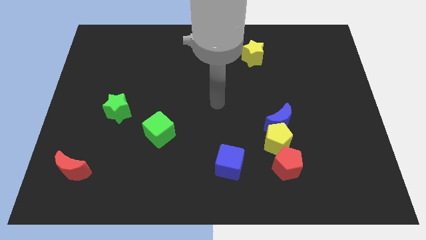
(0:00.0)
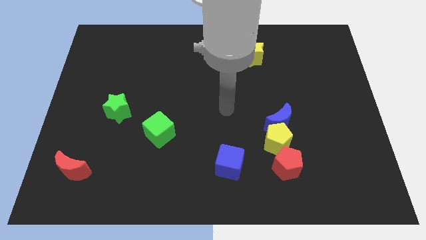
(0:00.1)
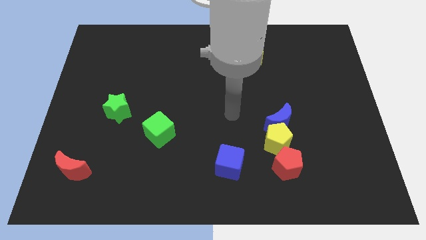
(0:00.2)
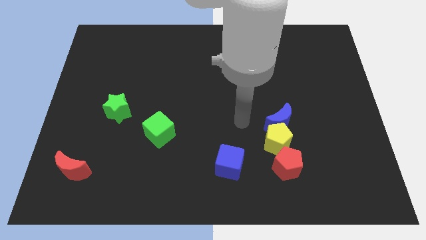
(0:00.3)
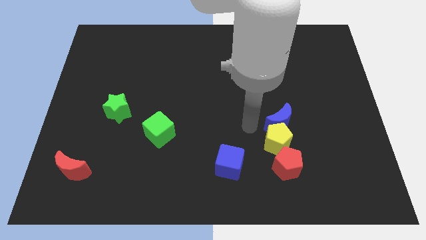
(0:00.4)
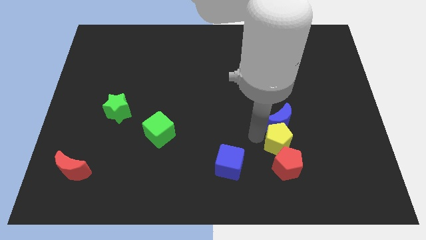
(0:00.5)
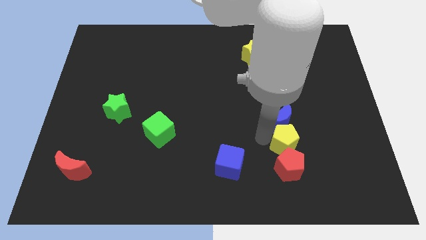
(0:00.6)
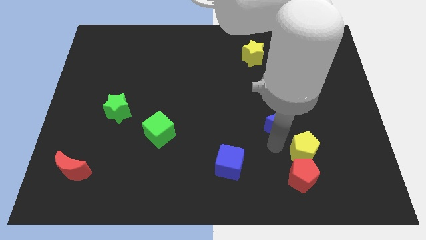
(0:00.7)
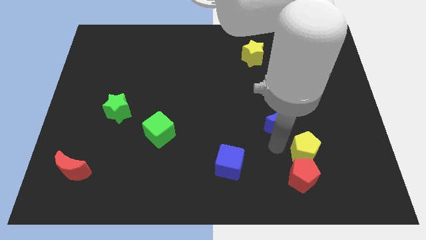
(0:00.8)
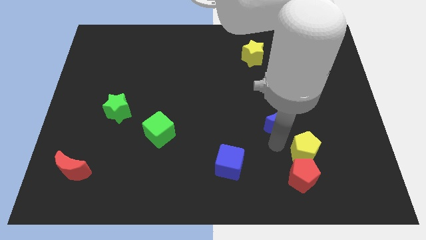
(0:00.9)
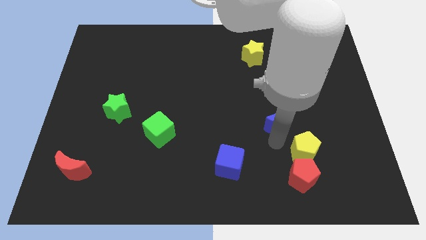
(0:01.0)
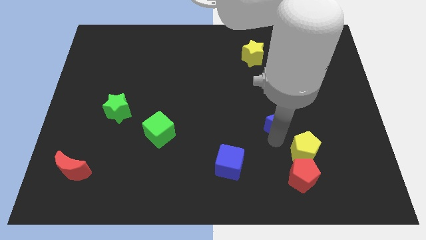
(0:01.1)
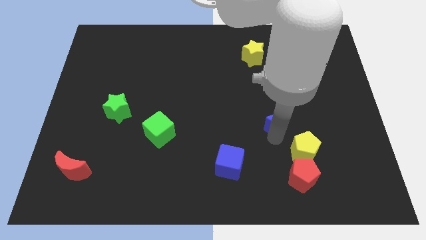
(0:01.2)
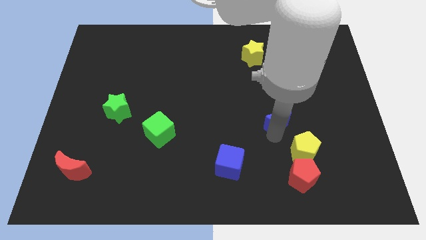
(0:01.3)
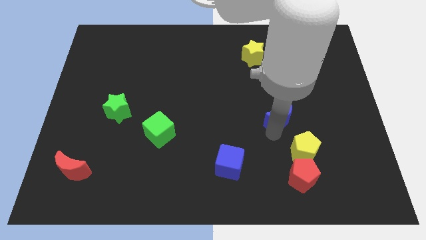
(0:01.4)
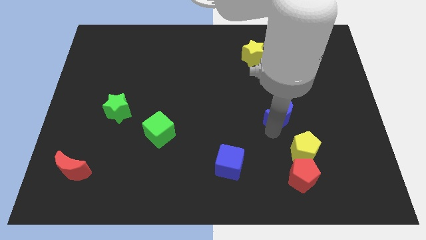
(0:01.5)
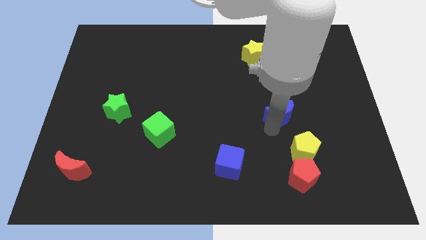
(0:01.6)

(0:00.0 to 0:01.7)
separate the blue moon from the yellow pentagon

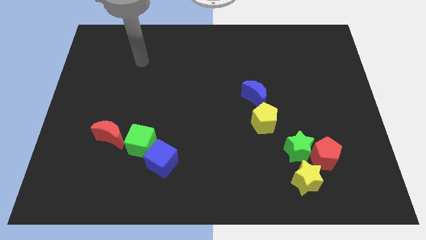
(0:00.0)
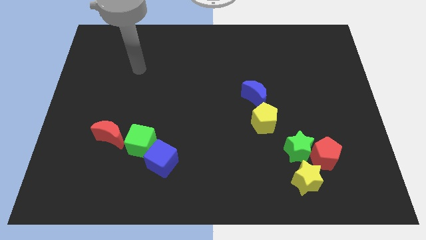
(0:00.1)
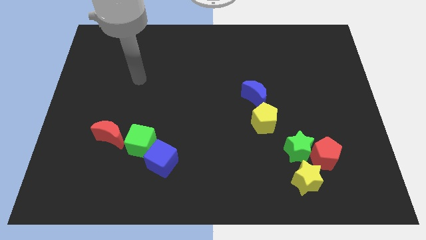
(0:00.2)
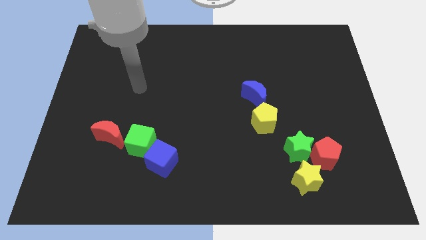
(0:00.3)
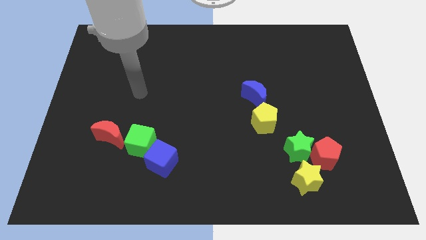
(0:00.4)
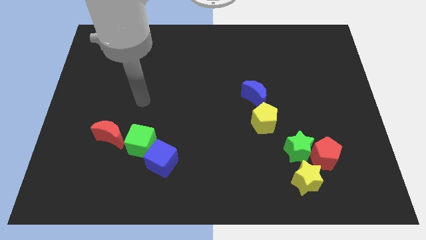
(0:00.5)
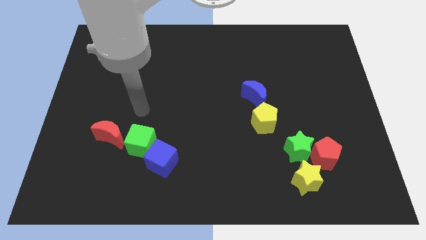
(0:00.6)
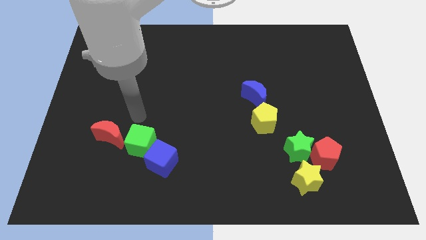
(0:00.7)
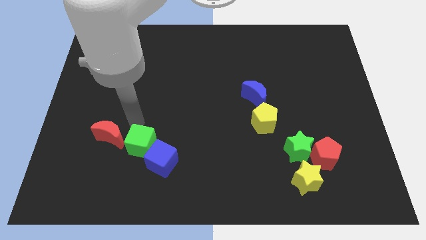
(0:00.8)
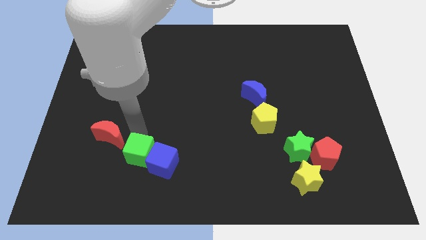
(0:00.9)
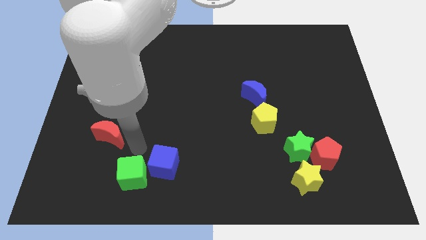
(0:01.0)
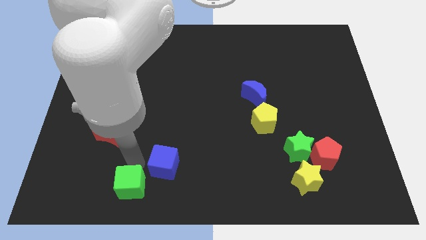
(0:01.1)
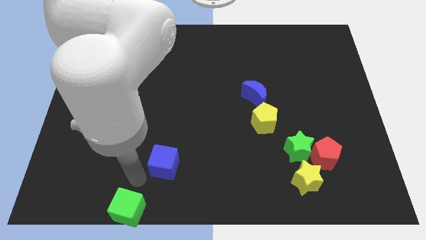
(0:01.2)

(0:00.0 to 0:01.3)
move the blue cube away from the green cube

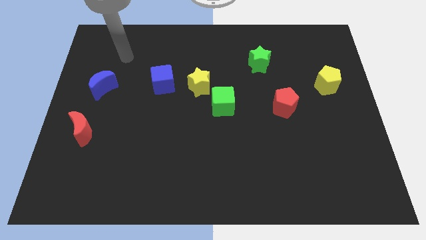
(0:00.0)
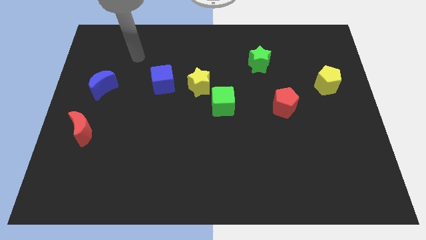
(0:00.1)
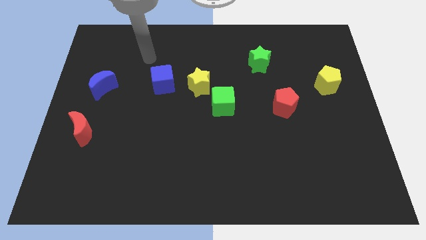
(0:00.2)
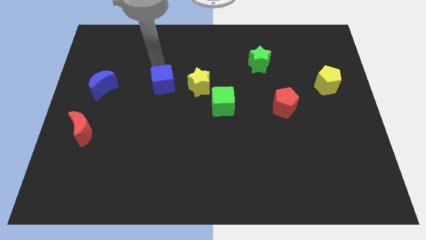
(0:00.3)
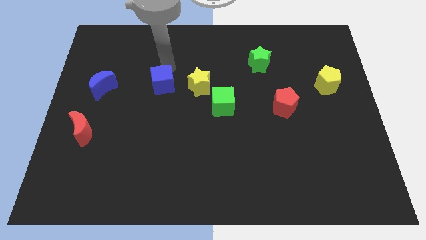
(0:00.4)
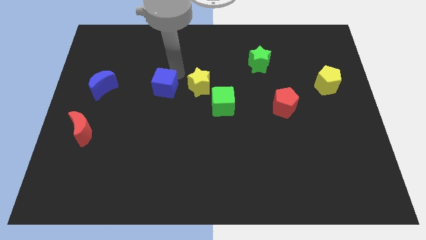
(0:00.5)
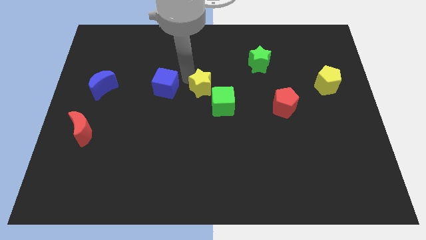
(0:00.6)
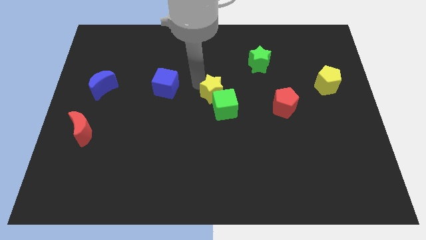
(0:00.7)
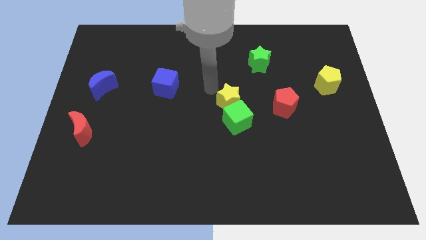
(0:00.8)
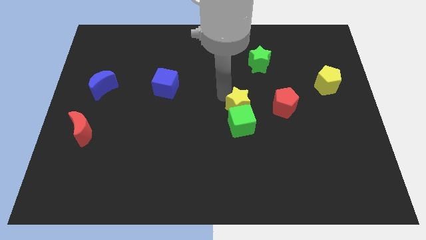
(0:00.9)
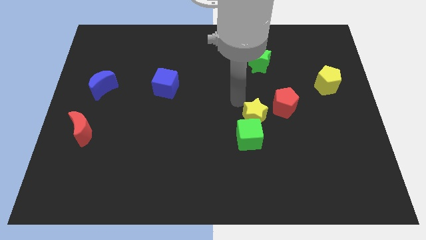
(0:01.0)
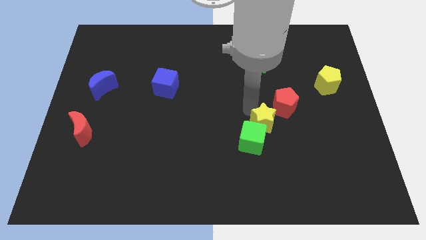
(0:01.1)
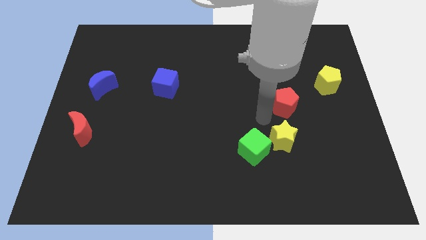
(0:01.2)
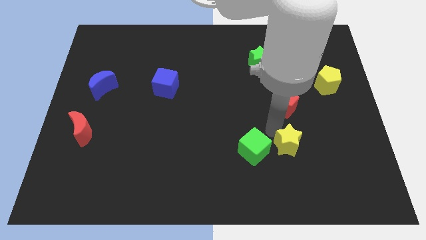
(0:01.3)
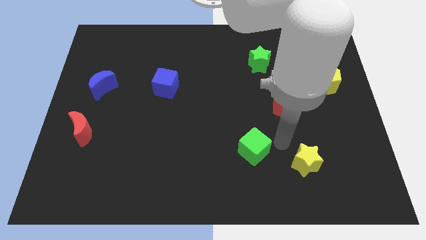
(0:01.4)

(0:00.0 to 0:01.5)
pull the green cube apart from the yellow star

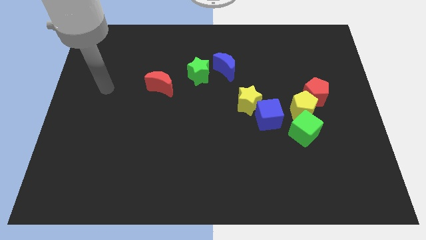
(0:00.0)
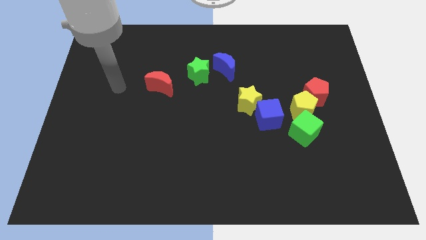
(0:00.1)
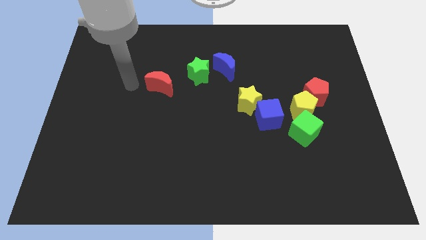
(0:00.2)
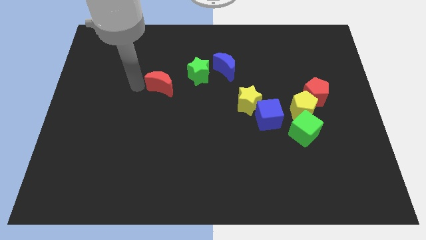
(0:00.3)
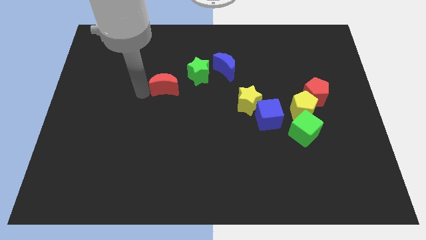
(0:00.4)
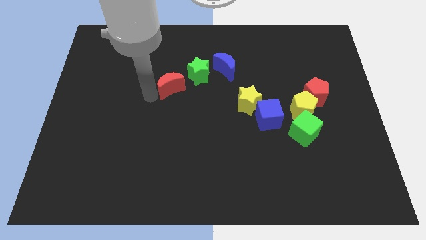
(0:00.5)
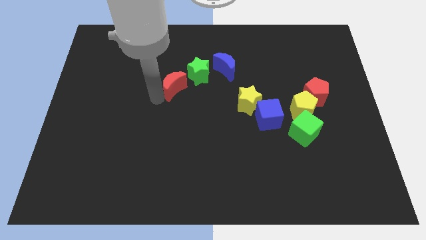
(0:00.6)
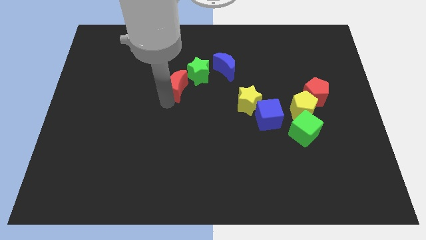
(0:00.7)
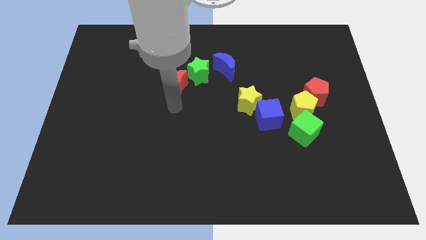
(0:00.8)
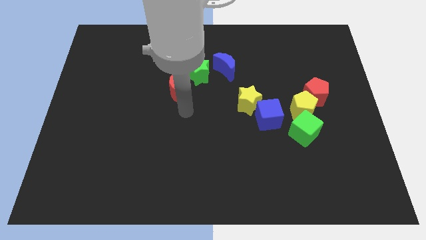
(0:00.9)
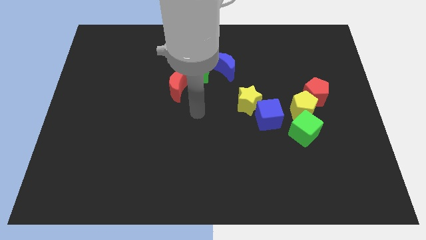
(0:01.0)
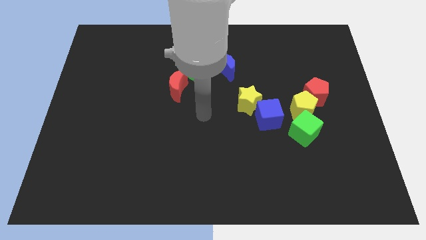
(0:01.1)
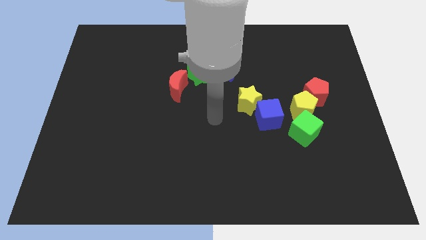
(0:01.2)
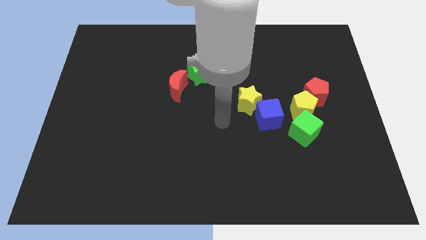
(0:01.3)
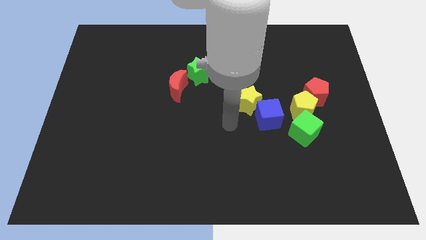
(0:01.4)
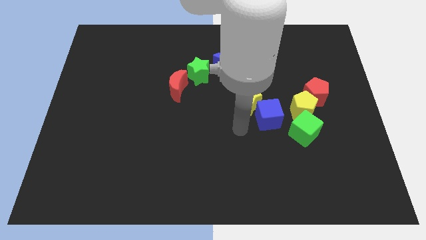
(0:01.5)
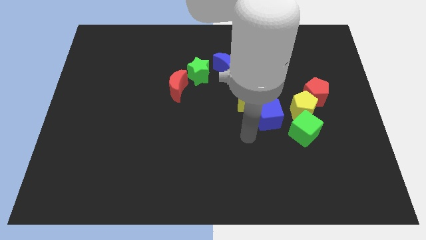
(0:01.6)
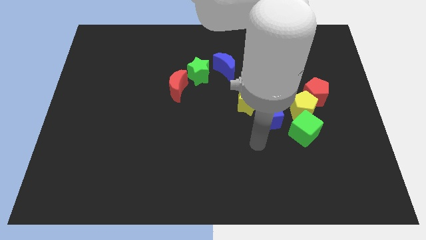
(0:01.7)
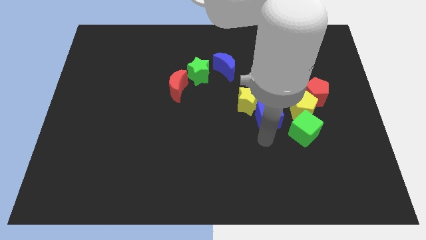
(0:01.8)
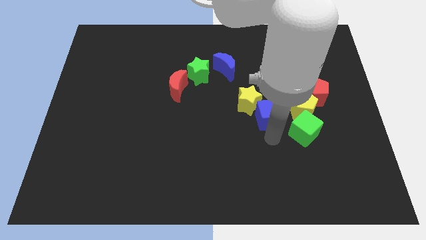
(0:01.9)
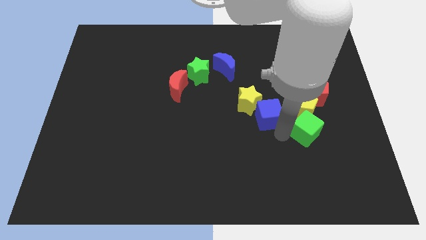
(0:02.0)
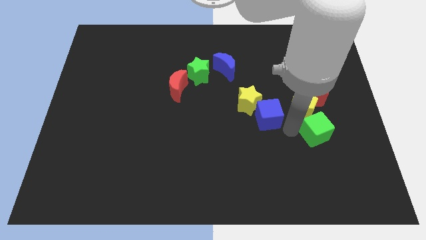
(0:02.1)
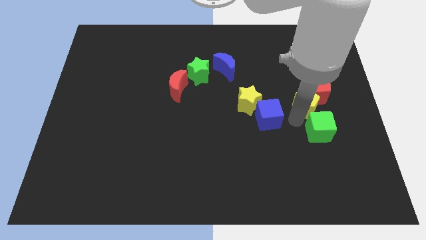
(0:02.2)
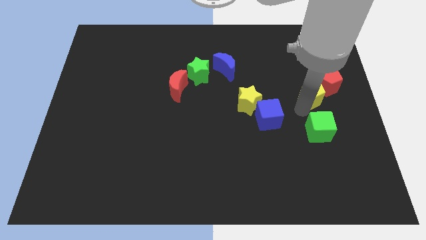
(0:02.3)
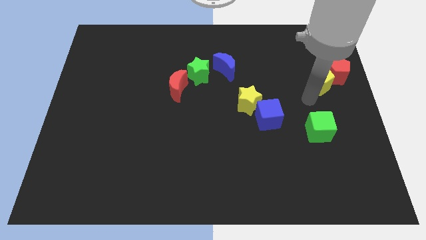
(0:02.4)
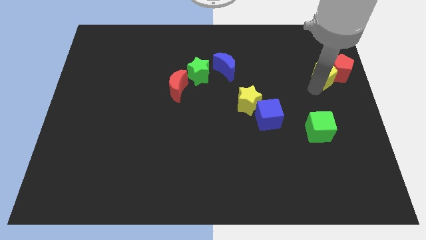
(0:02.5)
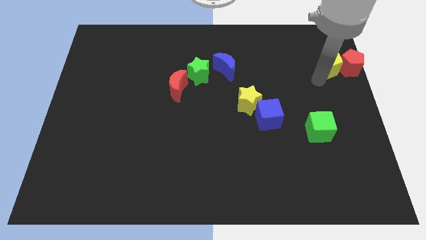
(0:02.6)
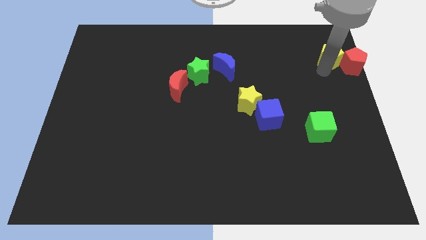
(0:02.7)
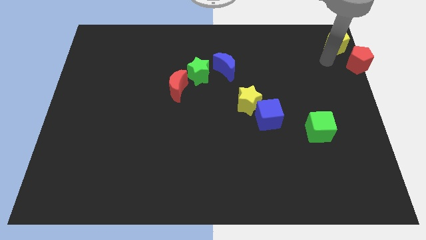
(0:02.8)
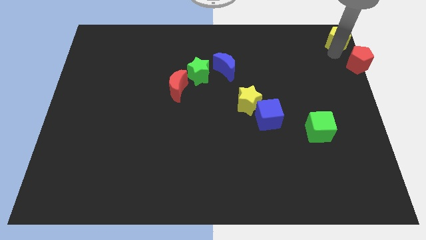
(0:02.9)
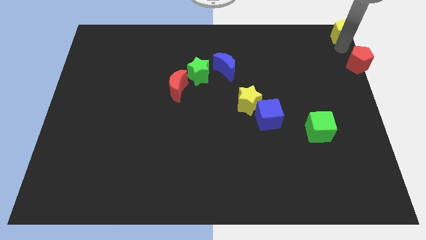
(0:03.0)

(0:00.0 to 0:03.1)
separate the red pentagon from the yellow pentagon

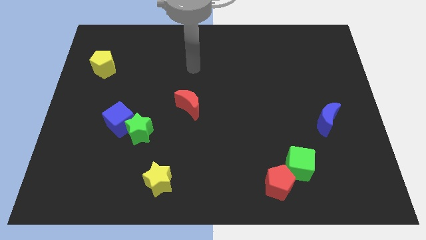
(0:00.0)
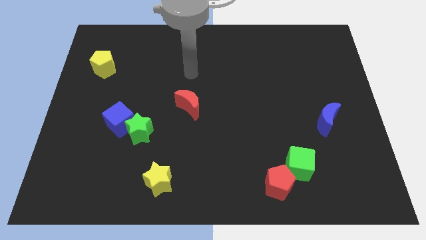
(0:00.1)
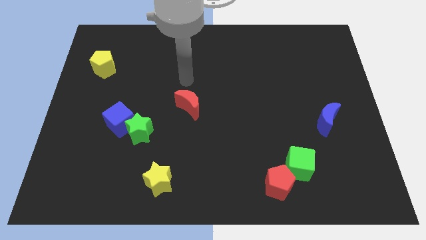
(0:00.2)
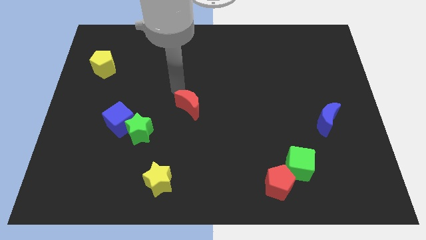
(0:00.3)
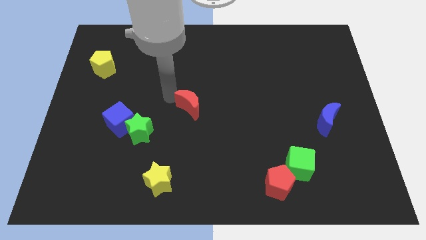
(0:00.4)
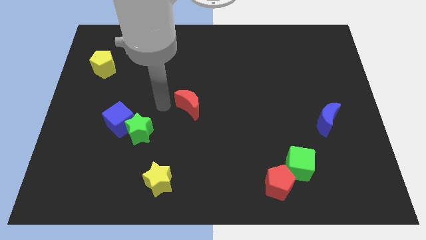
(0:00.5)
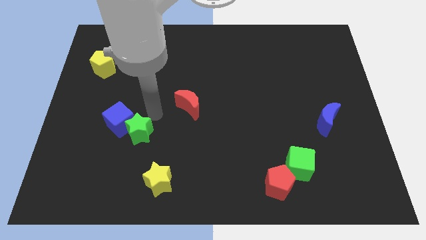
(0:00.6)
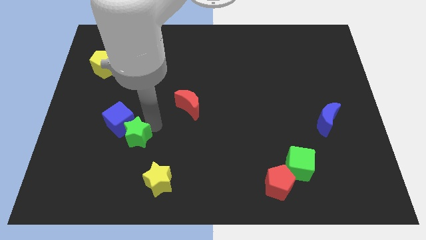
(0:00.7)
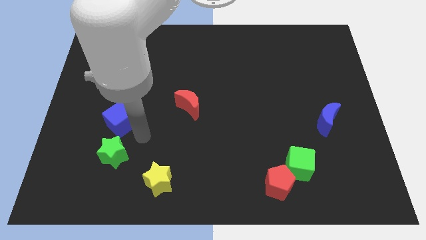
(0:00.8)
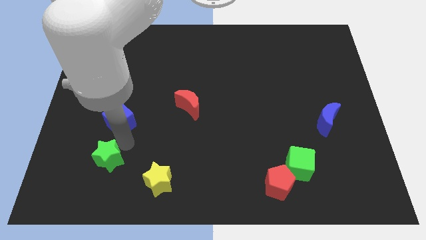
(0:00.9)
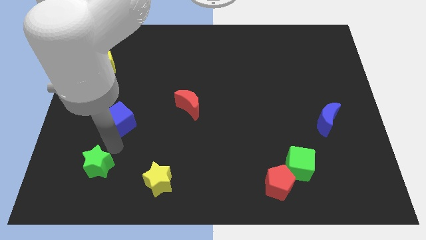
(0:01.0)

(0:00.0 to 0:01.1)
separate the blue cube from the green star

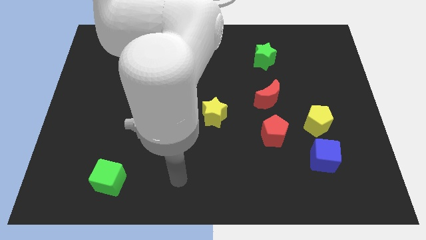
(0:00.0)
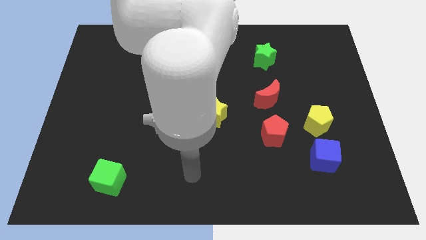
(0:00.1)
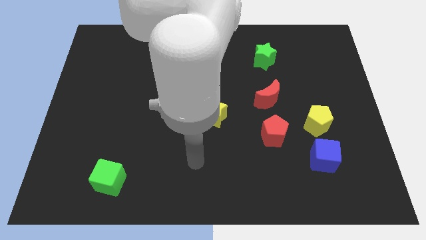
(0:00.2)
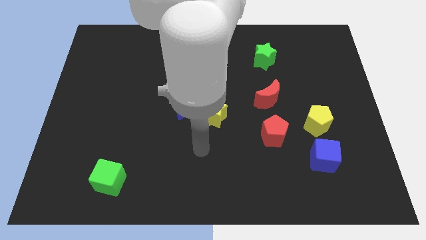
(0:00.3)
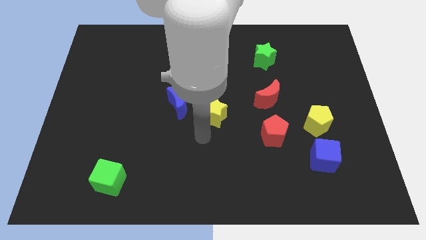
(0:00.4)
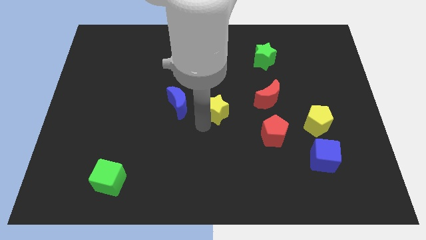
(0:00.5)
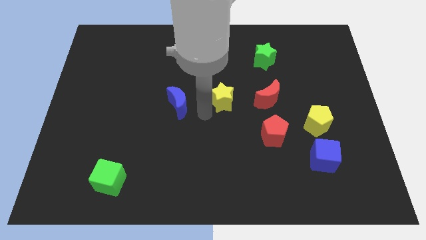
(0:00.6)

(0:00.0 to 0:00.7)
separate the blue moon from the yellow star

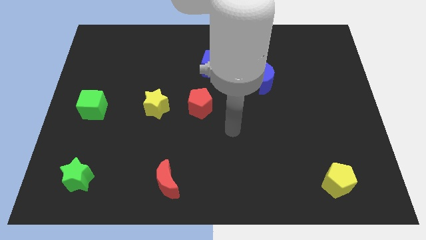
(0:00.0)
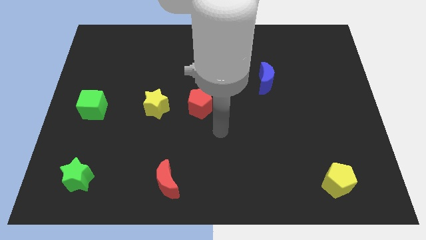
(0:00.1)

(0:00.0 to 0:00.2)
pull the red pentagon apart from the yellow star
